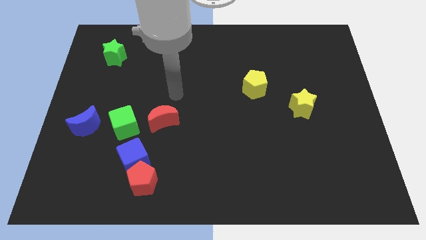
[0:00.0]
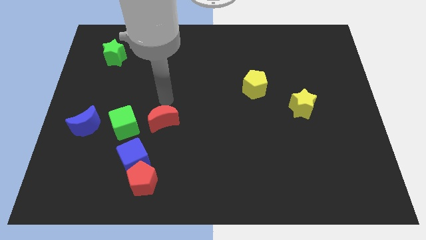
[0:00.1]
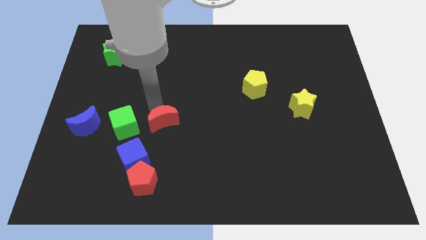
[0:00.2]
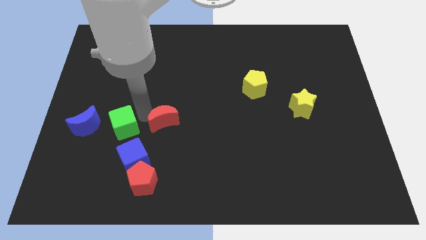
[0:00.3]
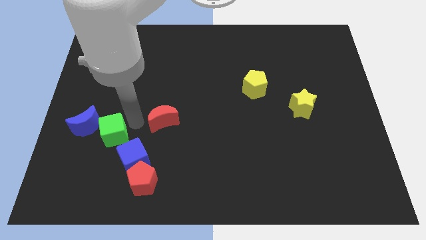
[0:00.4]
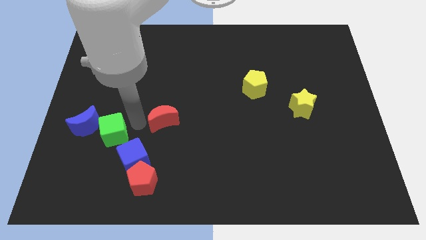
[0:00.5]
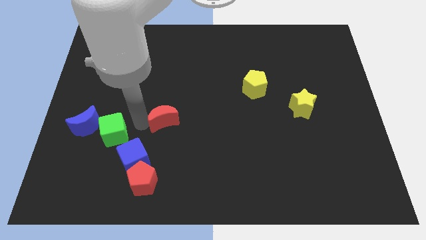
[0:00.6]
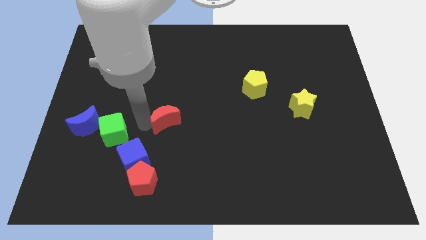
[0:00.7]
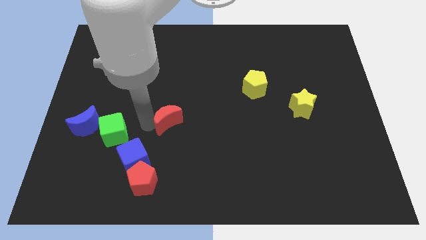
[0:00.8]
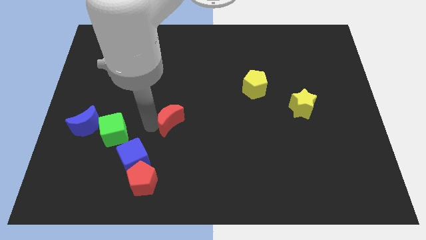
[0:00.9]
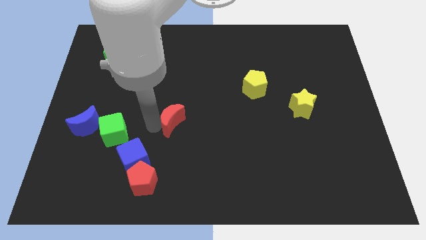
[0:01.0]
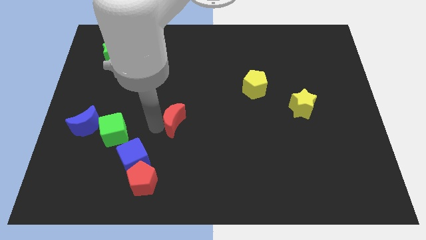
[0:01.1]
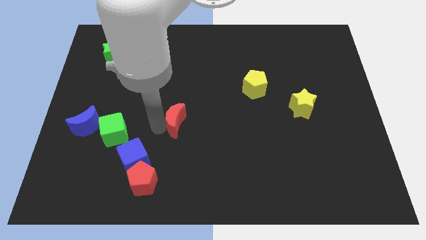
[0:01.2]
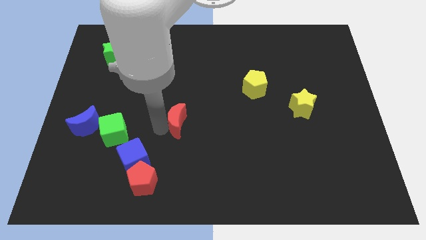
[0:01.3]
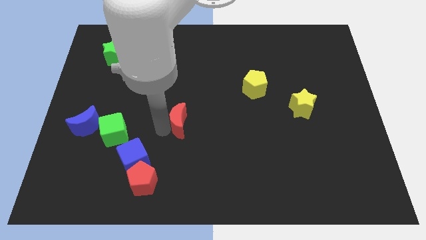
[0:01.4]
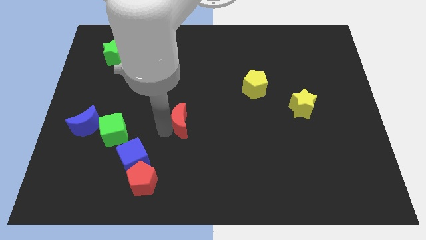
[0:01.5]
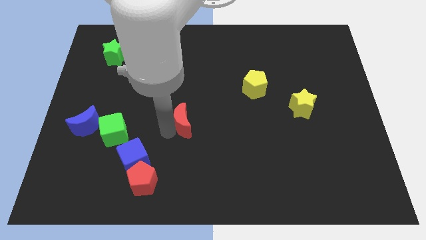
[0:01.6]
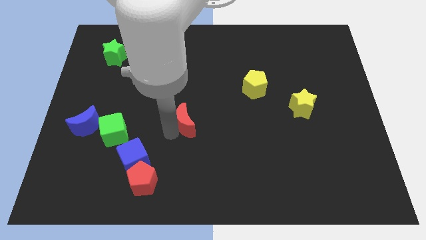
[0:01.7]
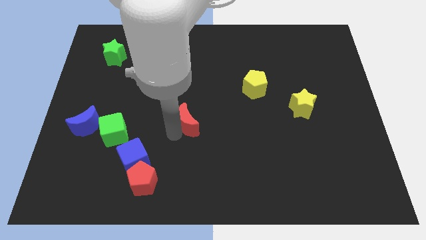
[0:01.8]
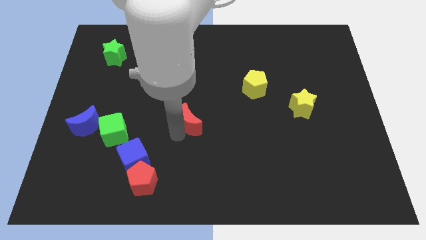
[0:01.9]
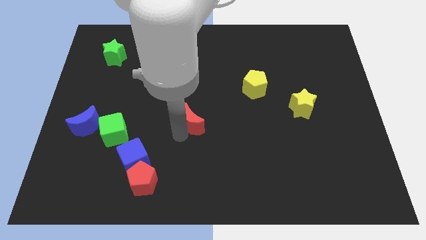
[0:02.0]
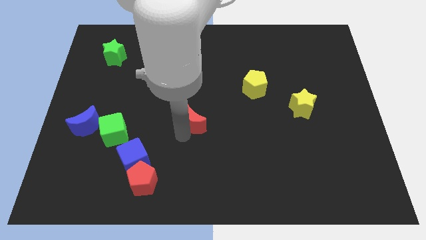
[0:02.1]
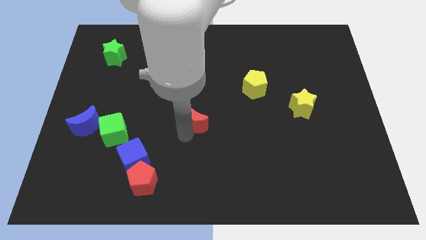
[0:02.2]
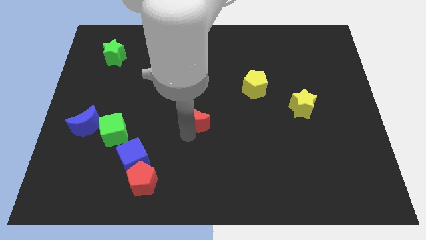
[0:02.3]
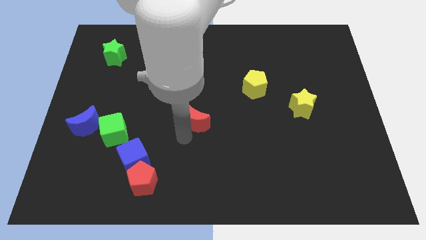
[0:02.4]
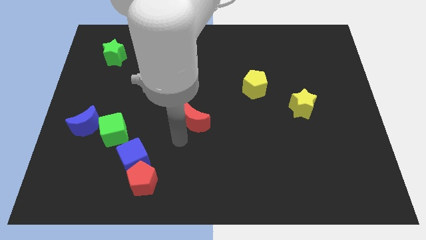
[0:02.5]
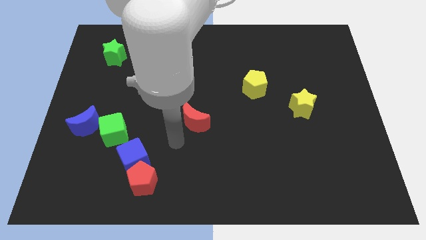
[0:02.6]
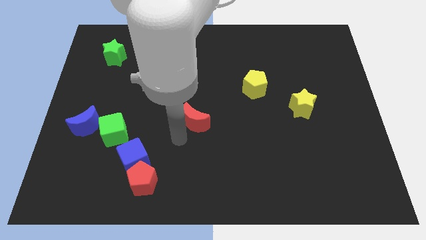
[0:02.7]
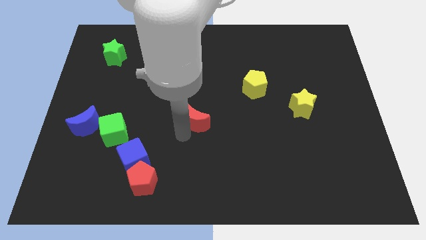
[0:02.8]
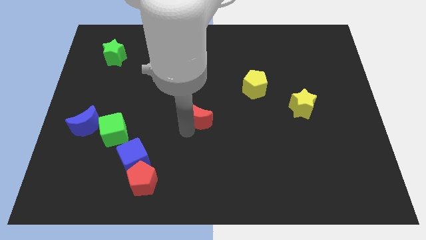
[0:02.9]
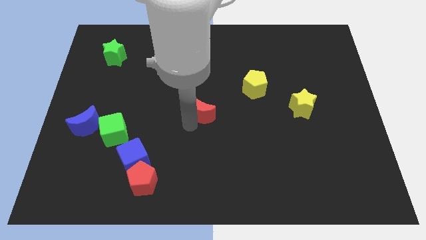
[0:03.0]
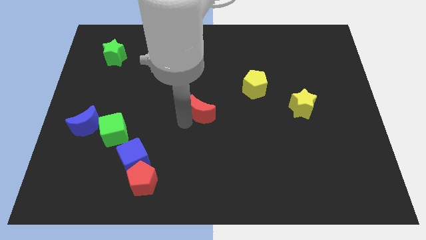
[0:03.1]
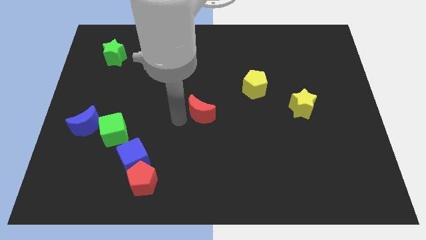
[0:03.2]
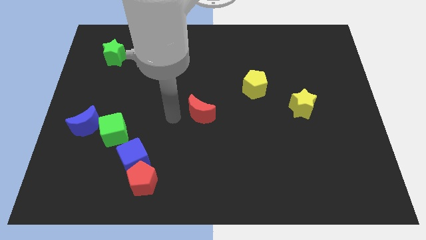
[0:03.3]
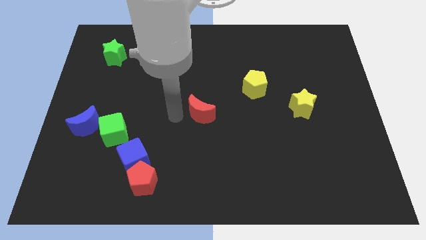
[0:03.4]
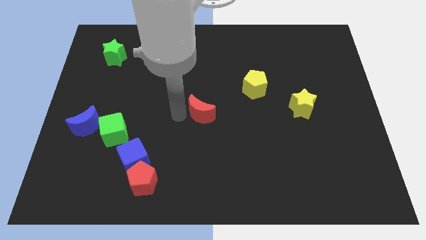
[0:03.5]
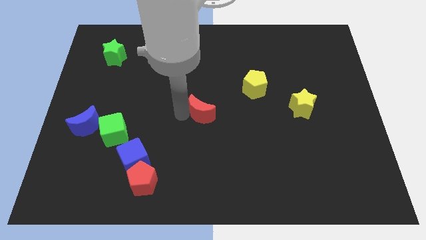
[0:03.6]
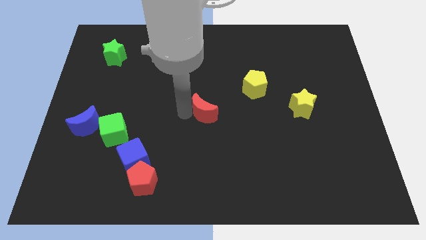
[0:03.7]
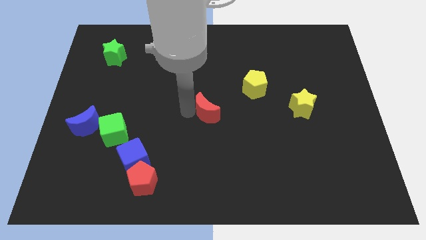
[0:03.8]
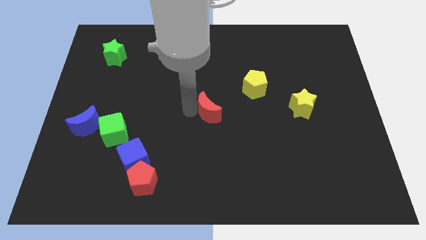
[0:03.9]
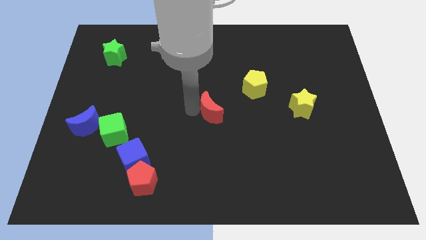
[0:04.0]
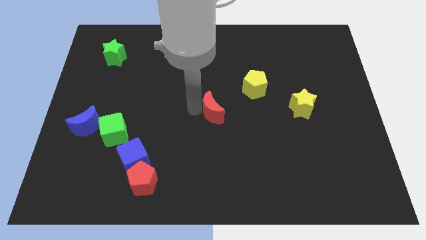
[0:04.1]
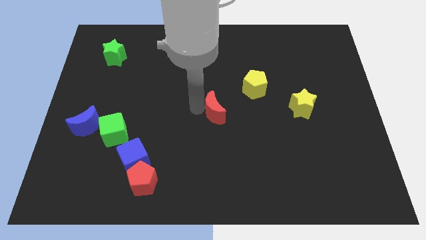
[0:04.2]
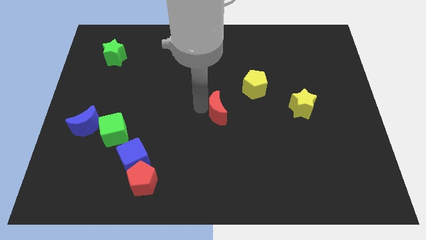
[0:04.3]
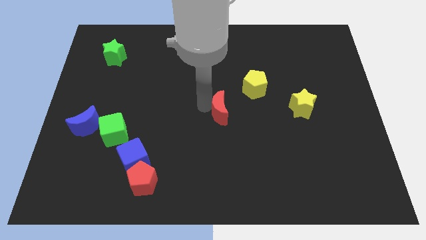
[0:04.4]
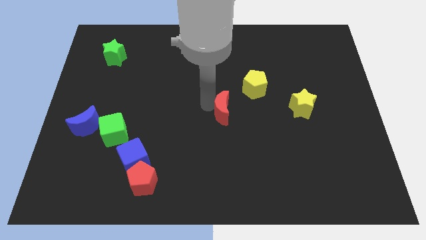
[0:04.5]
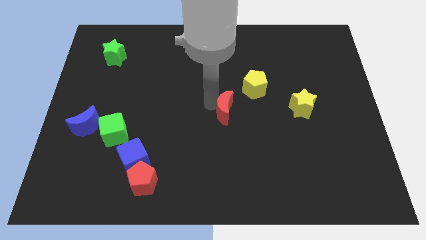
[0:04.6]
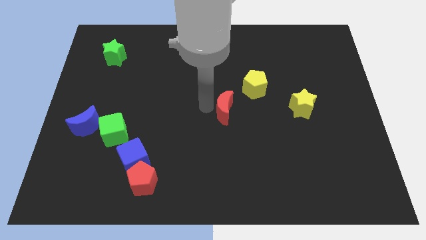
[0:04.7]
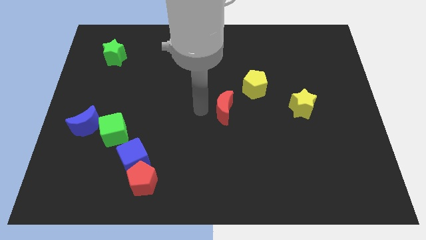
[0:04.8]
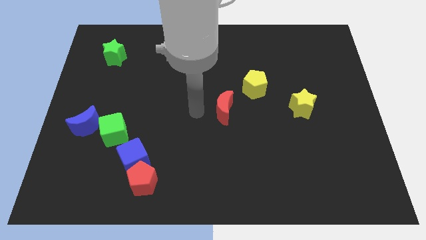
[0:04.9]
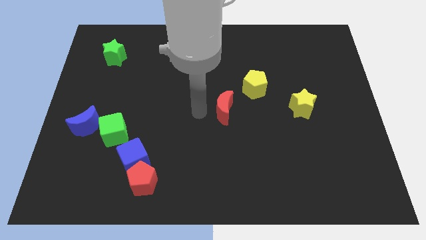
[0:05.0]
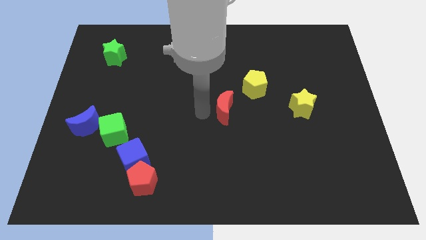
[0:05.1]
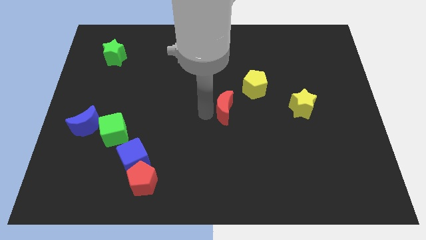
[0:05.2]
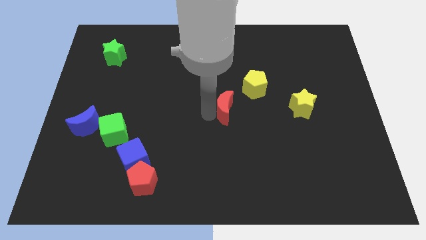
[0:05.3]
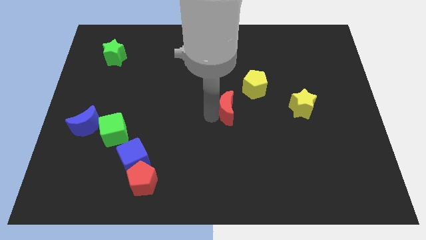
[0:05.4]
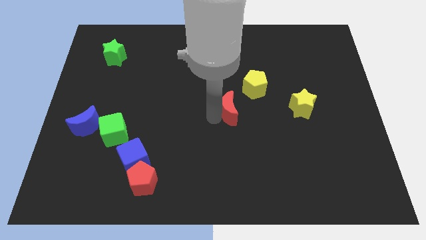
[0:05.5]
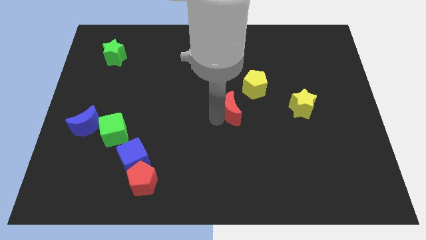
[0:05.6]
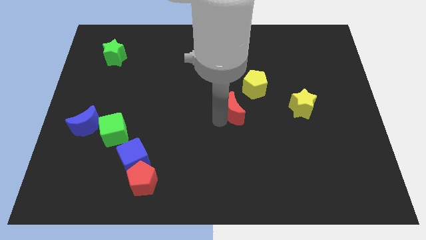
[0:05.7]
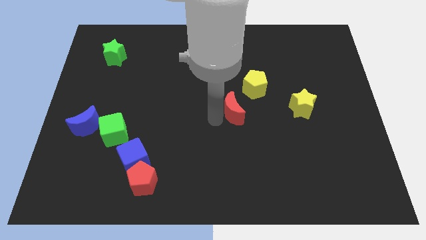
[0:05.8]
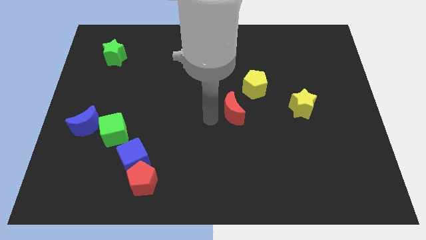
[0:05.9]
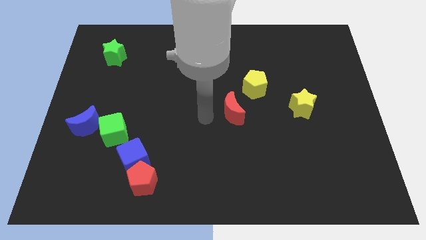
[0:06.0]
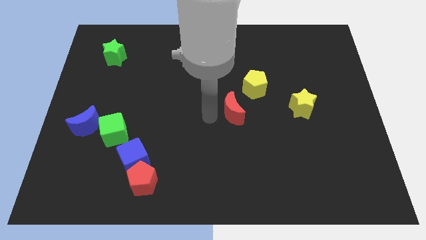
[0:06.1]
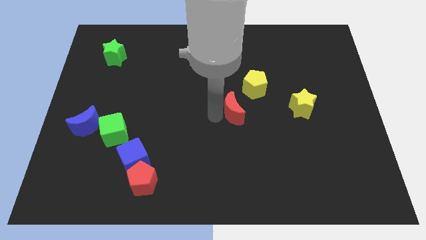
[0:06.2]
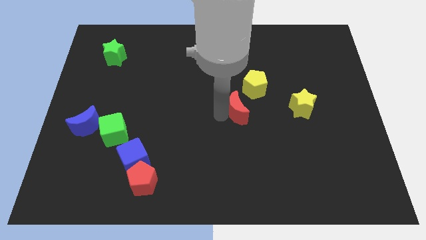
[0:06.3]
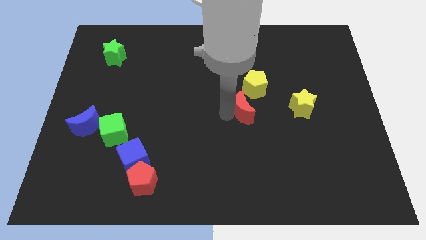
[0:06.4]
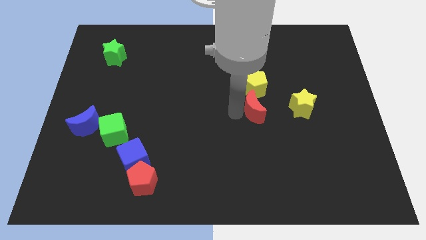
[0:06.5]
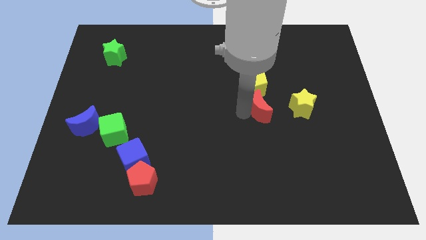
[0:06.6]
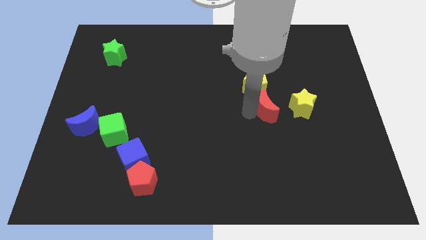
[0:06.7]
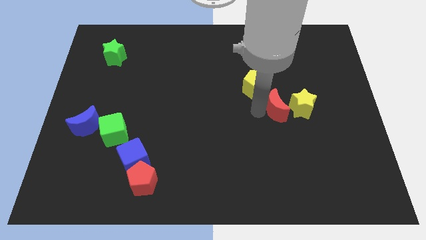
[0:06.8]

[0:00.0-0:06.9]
move the red moon next to the yellow star

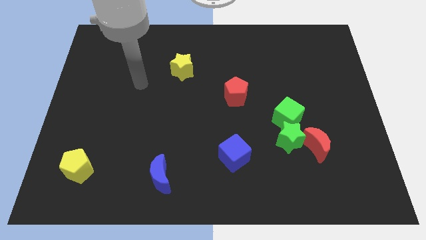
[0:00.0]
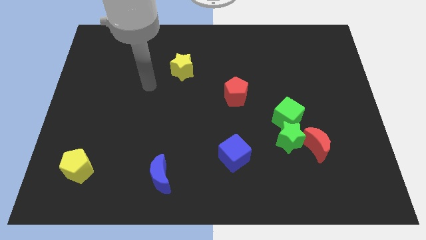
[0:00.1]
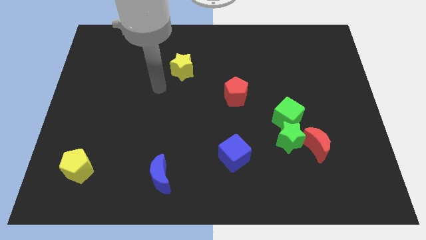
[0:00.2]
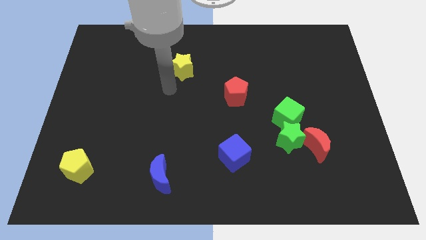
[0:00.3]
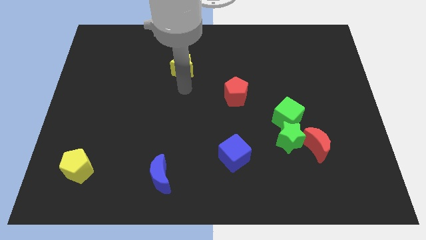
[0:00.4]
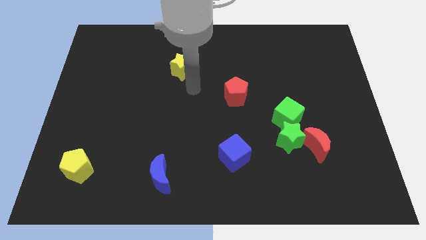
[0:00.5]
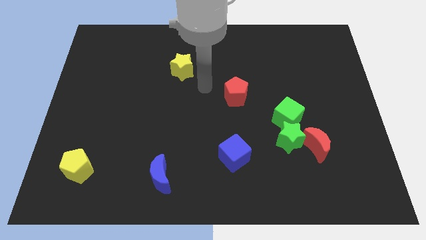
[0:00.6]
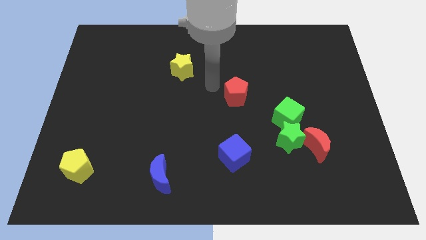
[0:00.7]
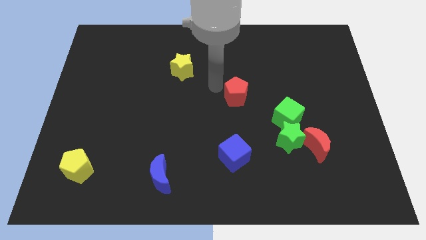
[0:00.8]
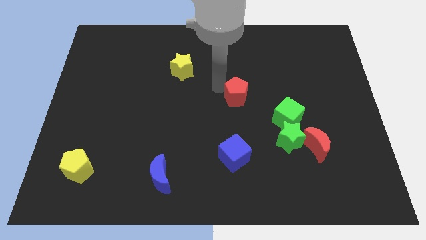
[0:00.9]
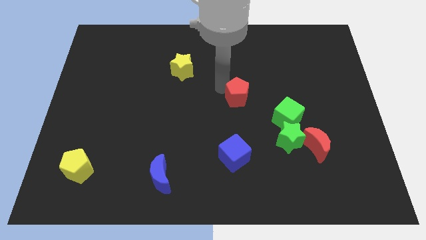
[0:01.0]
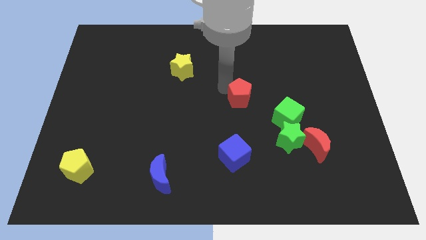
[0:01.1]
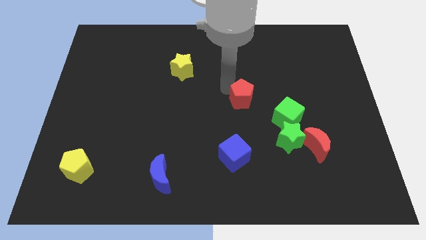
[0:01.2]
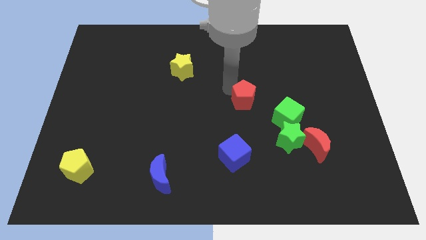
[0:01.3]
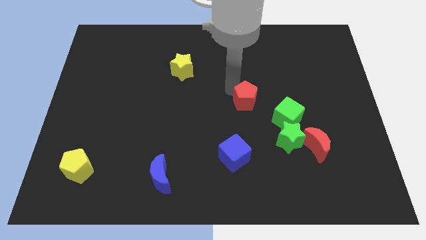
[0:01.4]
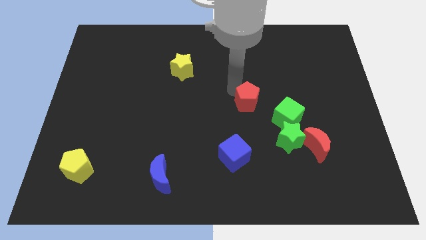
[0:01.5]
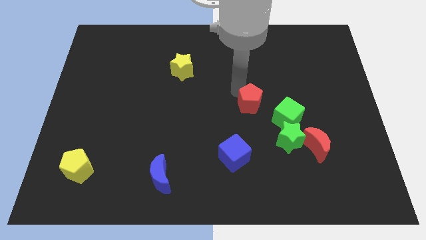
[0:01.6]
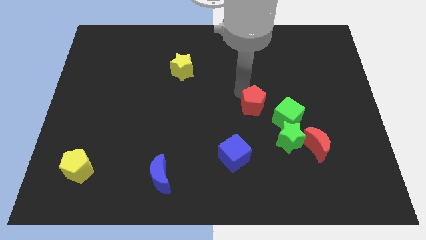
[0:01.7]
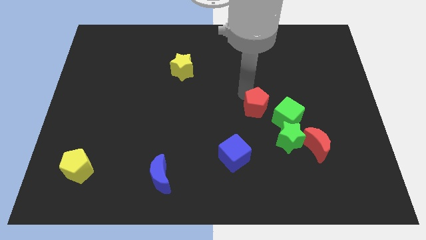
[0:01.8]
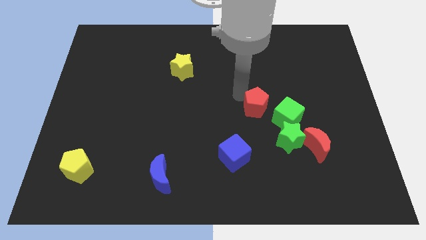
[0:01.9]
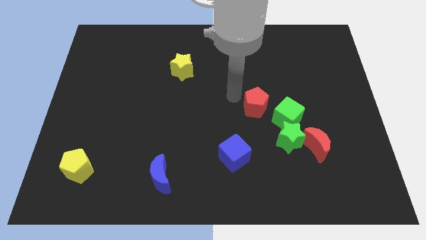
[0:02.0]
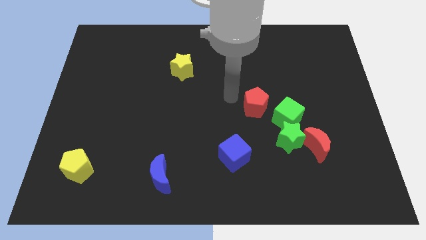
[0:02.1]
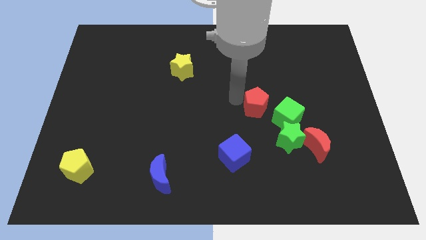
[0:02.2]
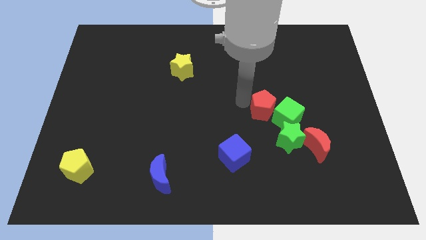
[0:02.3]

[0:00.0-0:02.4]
slide the red pentagon to the green cube
